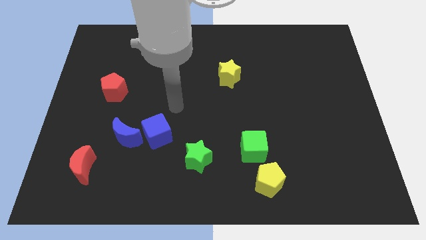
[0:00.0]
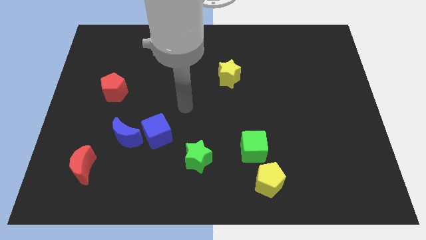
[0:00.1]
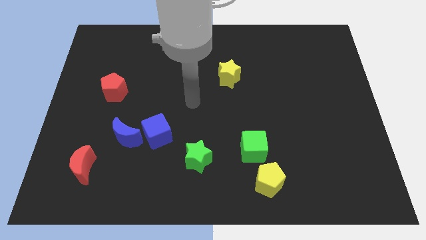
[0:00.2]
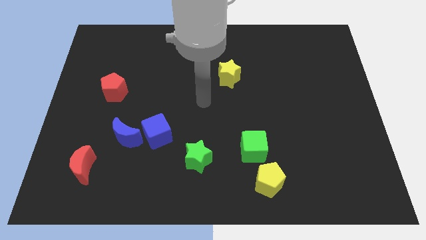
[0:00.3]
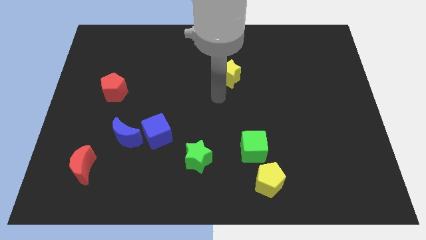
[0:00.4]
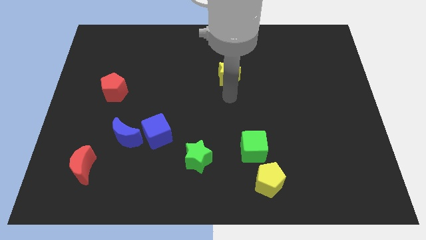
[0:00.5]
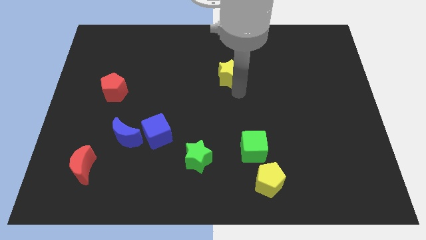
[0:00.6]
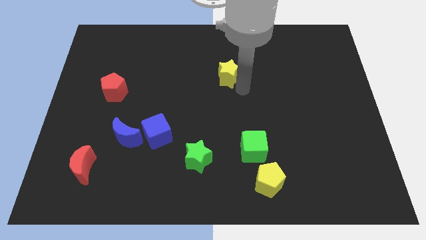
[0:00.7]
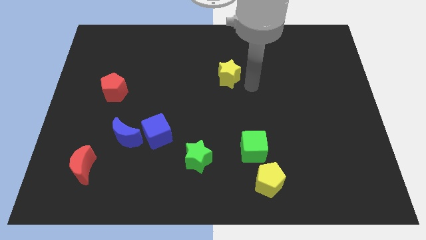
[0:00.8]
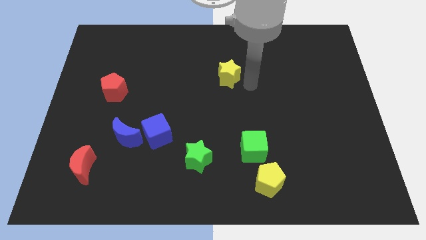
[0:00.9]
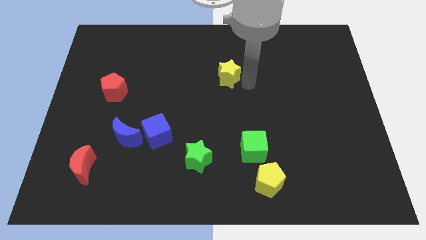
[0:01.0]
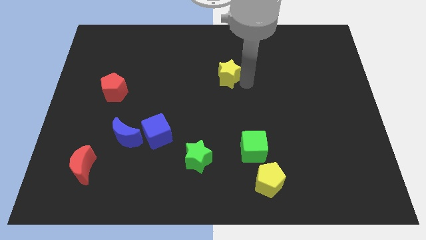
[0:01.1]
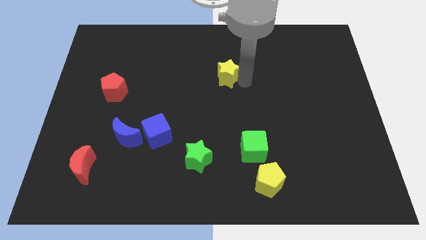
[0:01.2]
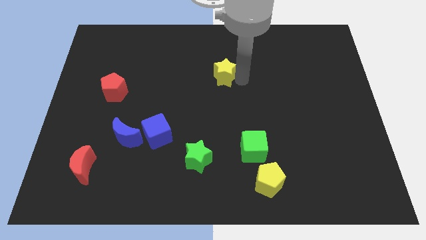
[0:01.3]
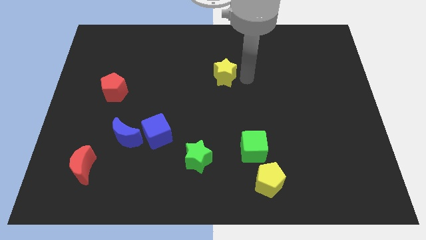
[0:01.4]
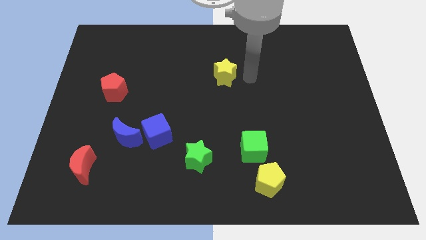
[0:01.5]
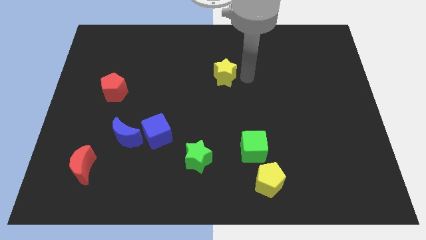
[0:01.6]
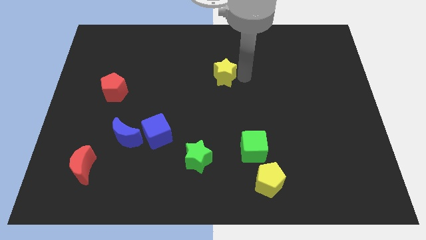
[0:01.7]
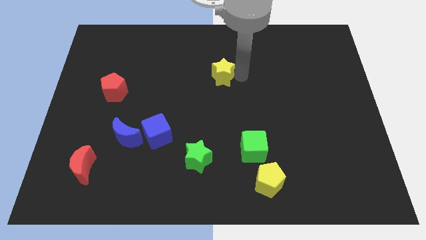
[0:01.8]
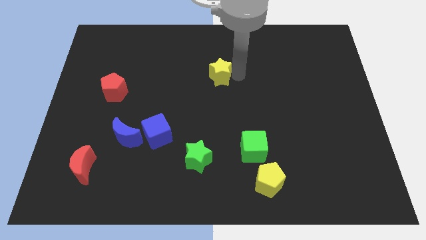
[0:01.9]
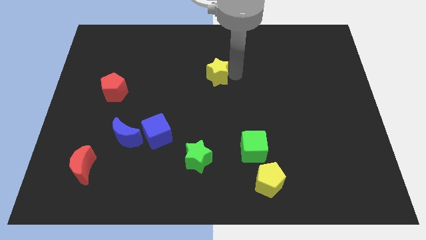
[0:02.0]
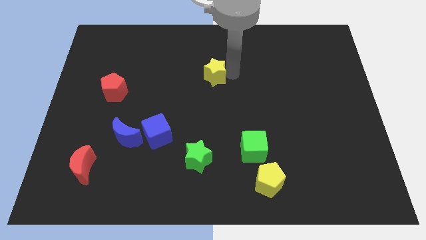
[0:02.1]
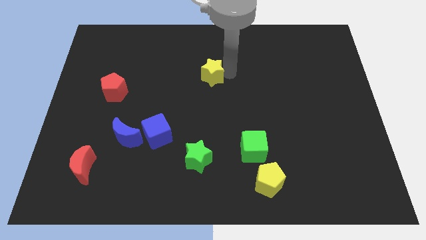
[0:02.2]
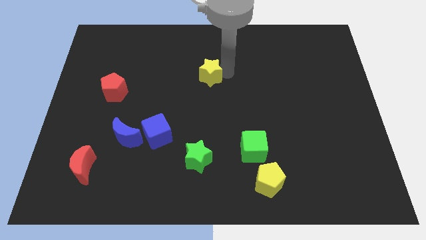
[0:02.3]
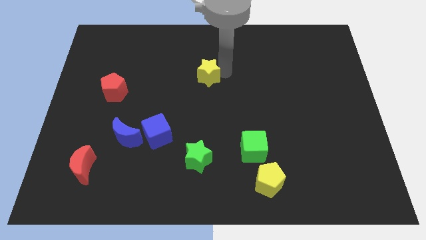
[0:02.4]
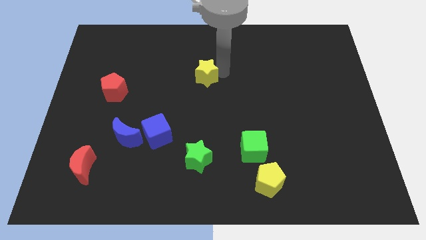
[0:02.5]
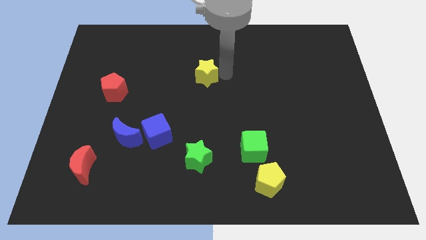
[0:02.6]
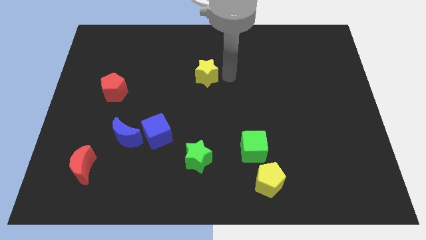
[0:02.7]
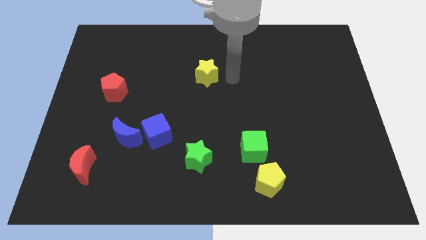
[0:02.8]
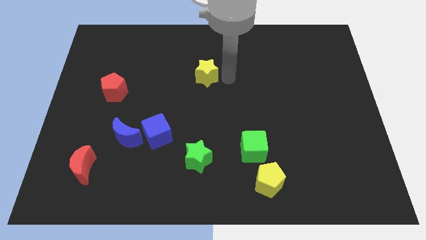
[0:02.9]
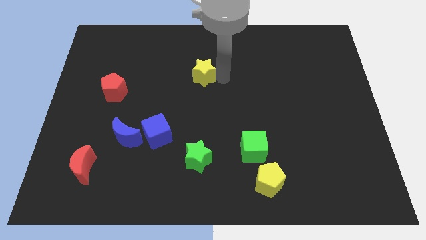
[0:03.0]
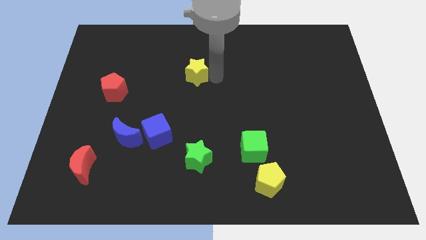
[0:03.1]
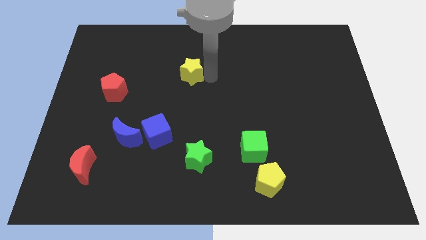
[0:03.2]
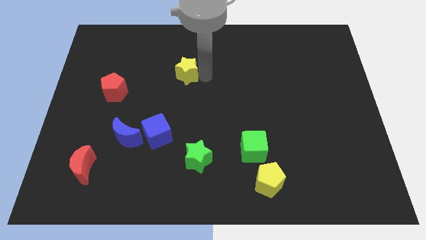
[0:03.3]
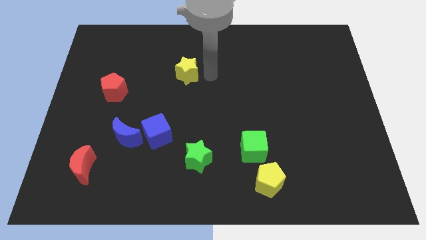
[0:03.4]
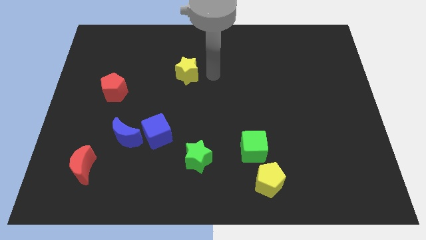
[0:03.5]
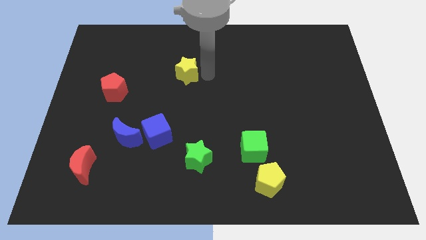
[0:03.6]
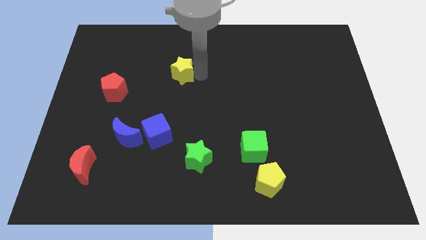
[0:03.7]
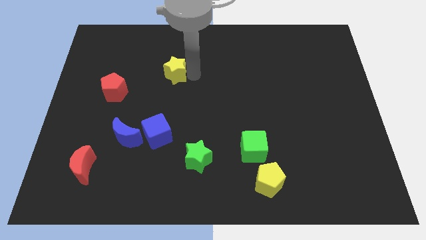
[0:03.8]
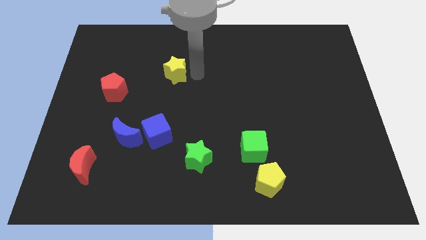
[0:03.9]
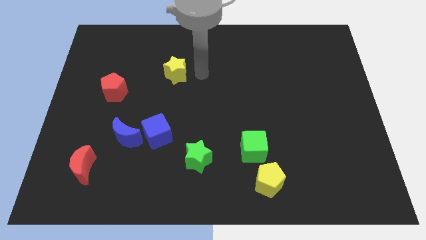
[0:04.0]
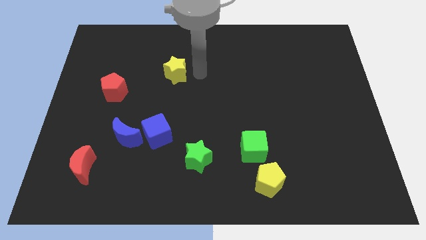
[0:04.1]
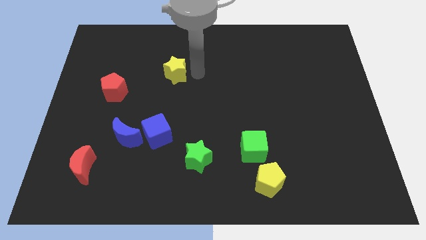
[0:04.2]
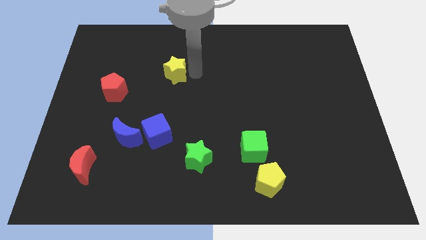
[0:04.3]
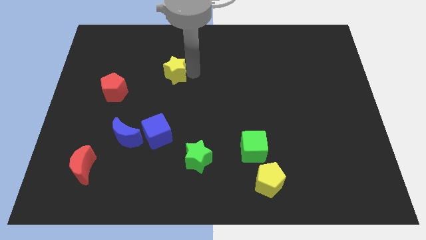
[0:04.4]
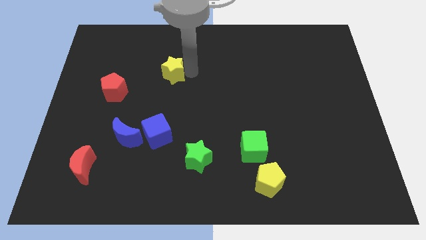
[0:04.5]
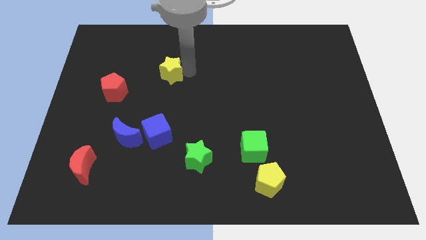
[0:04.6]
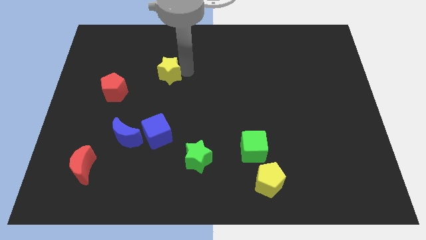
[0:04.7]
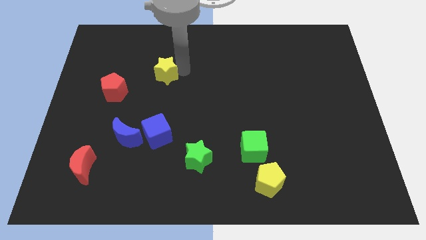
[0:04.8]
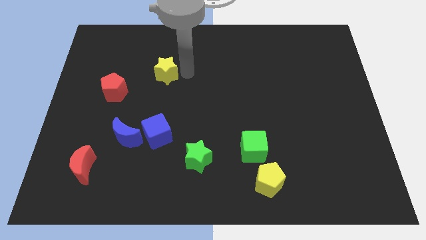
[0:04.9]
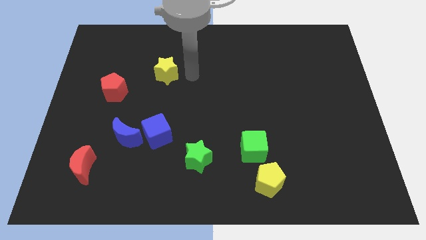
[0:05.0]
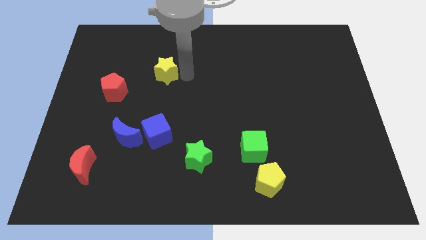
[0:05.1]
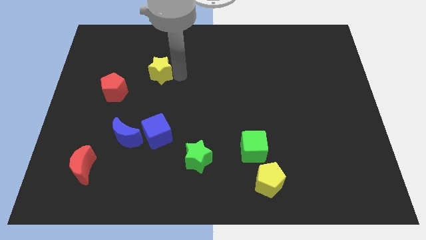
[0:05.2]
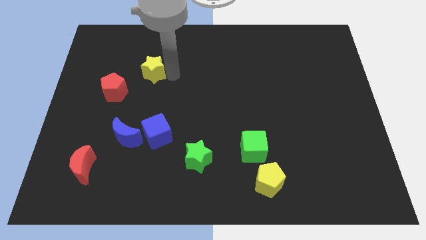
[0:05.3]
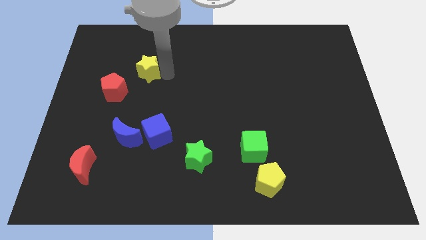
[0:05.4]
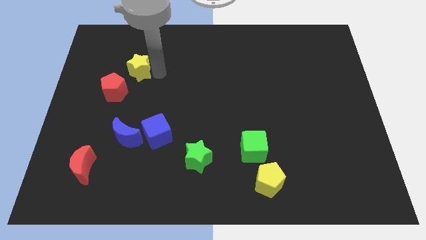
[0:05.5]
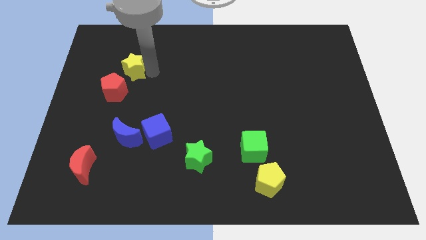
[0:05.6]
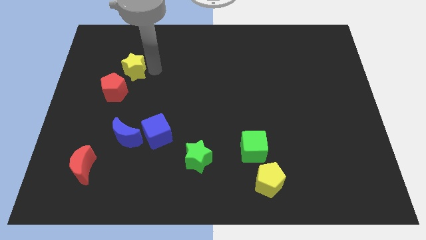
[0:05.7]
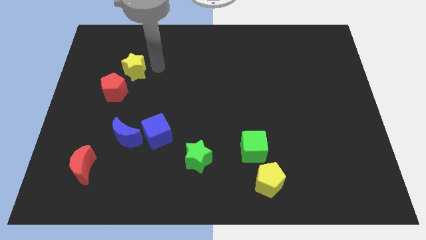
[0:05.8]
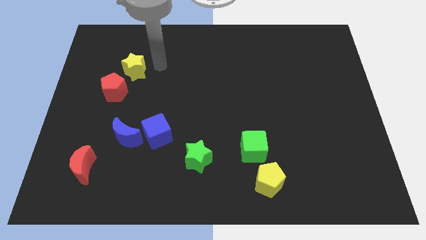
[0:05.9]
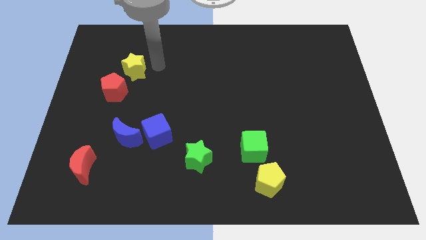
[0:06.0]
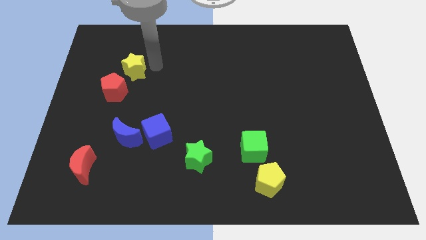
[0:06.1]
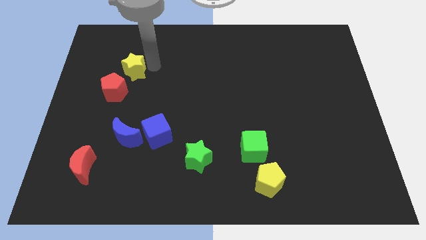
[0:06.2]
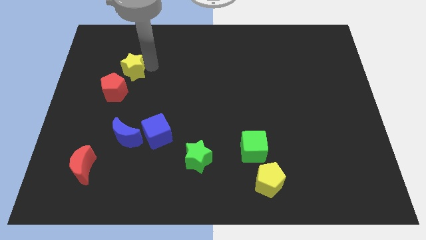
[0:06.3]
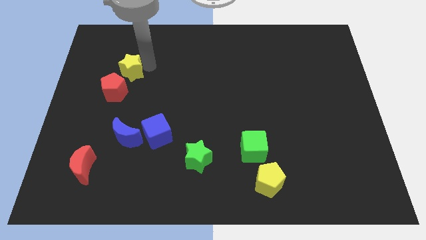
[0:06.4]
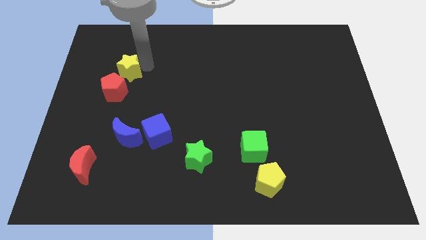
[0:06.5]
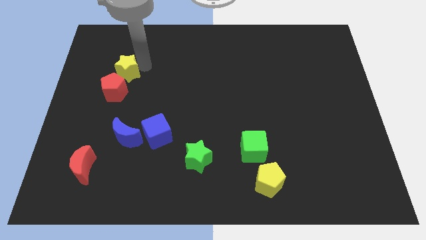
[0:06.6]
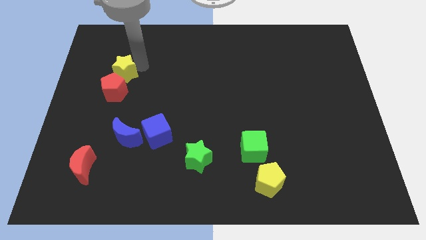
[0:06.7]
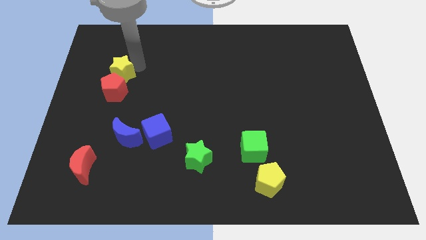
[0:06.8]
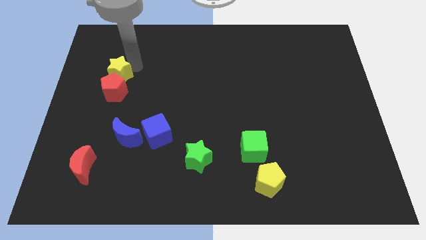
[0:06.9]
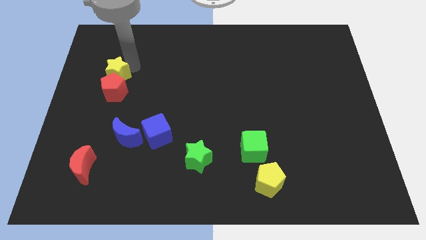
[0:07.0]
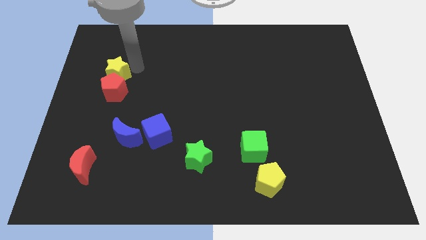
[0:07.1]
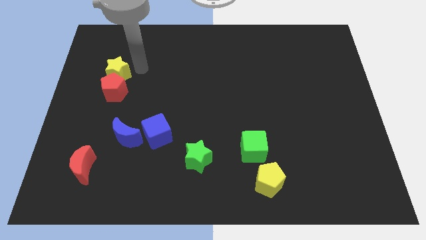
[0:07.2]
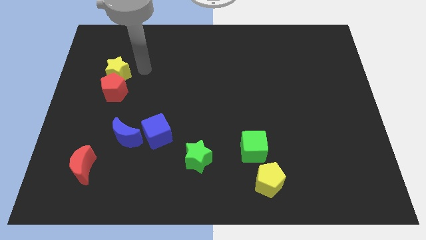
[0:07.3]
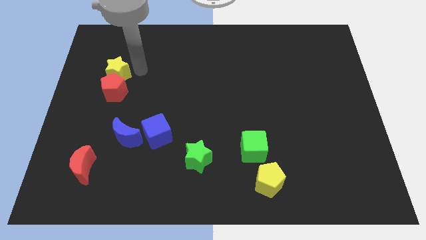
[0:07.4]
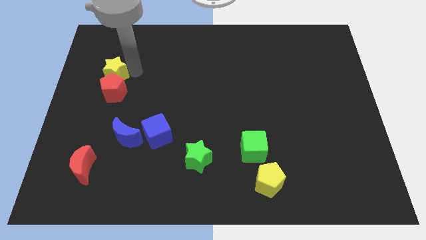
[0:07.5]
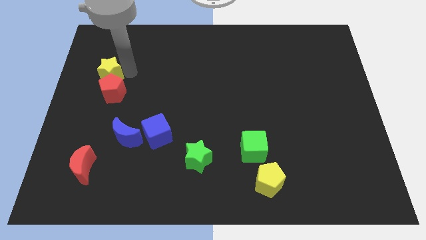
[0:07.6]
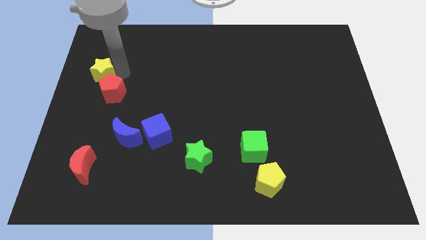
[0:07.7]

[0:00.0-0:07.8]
slide the yellow star to the left side of the board
